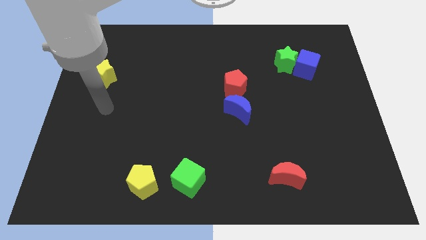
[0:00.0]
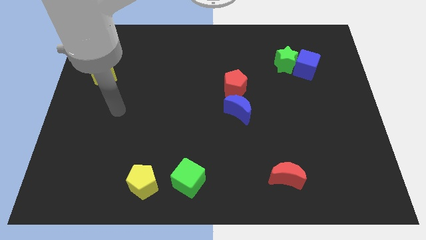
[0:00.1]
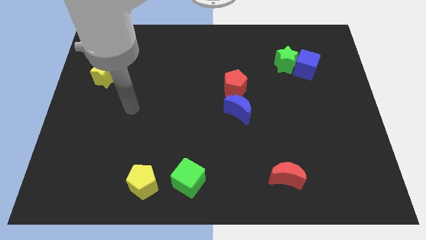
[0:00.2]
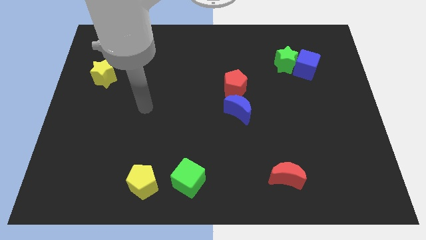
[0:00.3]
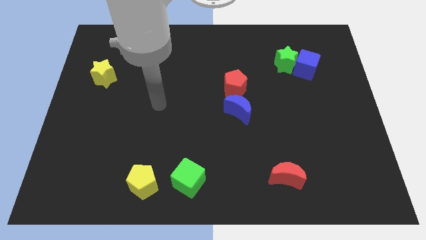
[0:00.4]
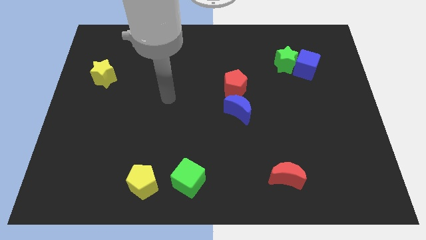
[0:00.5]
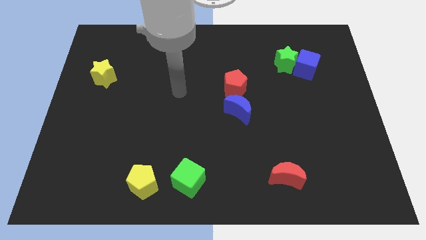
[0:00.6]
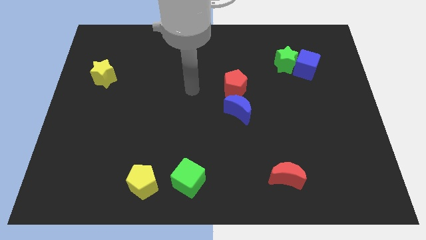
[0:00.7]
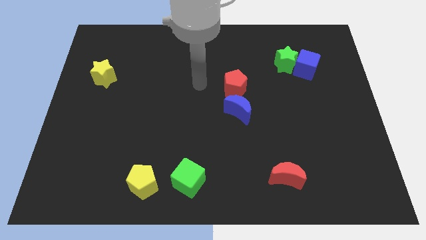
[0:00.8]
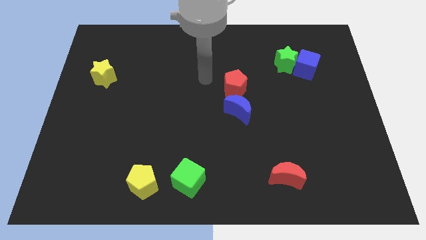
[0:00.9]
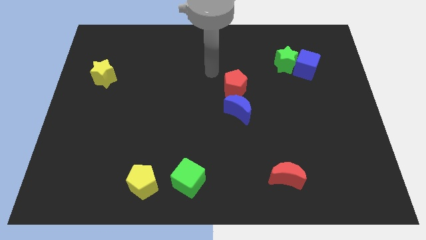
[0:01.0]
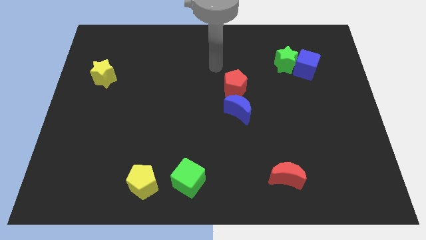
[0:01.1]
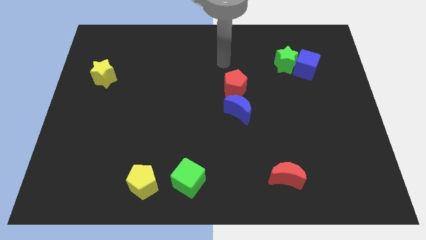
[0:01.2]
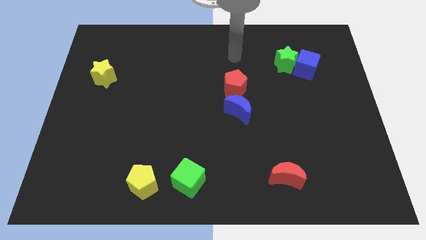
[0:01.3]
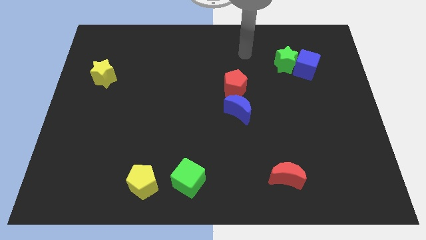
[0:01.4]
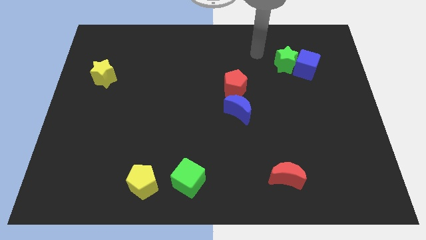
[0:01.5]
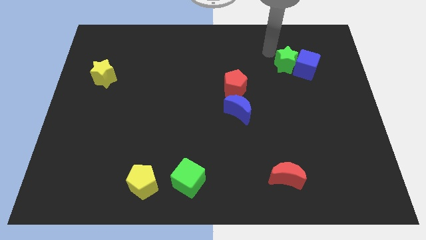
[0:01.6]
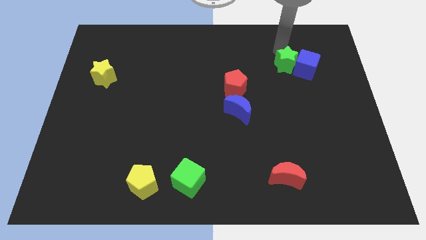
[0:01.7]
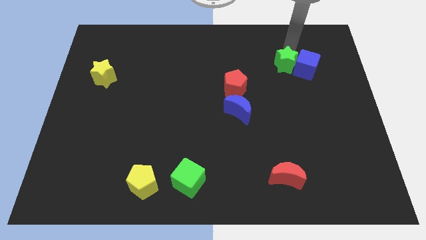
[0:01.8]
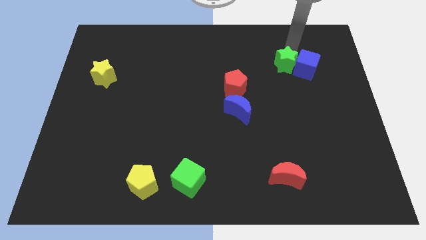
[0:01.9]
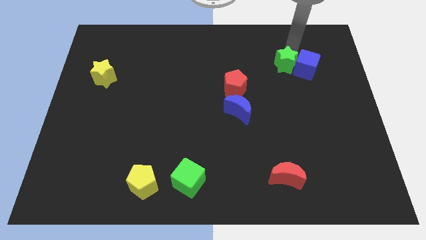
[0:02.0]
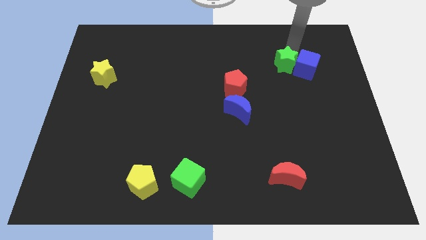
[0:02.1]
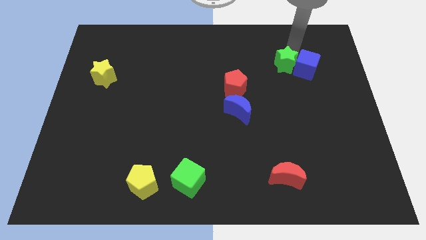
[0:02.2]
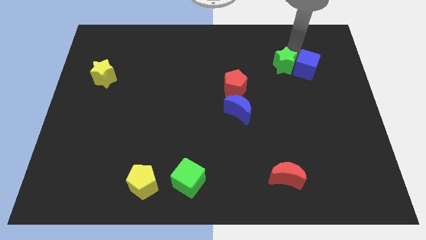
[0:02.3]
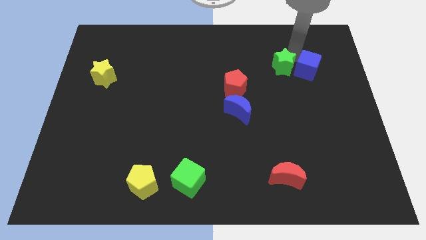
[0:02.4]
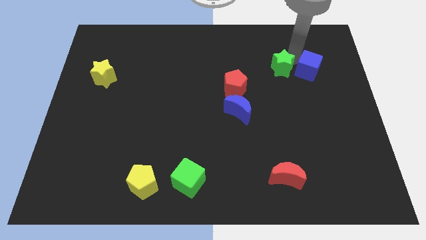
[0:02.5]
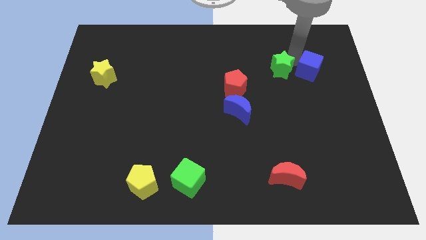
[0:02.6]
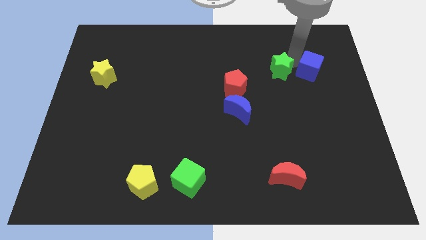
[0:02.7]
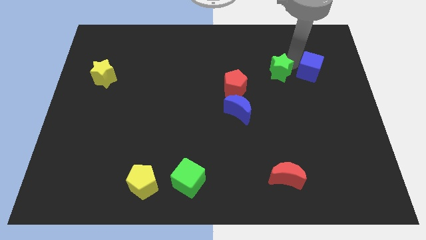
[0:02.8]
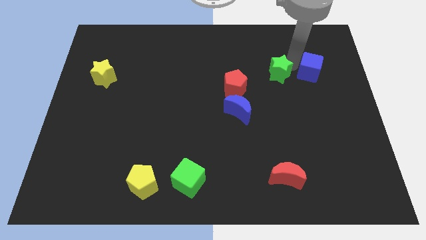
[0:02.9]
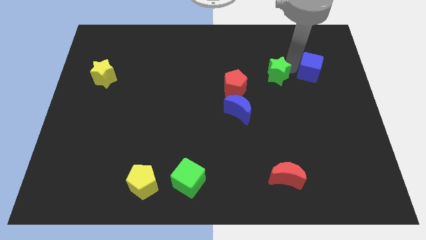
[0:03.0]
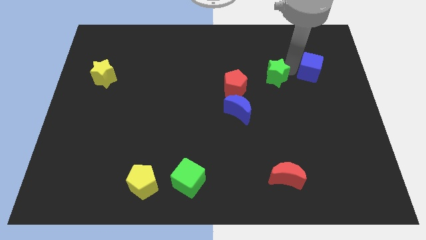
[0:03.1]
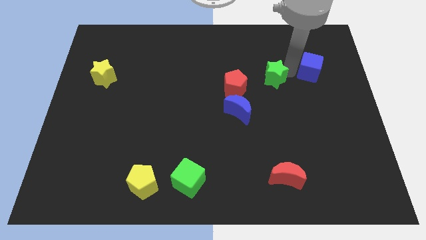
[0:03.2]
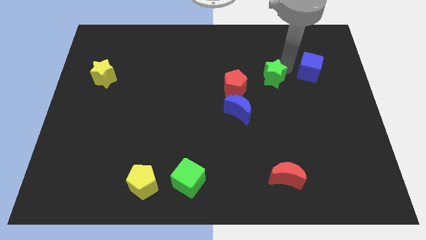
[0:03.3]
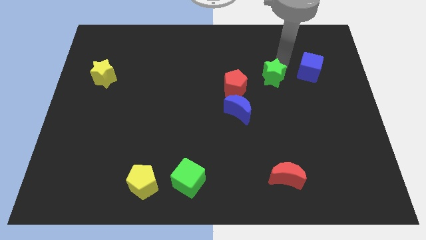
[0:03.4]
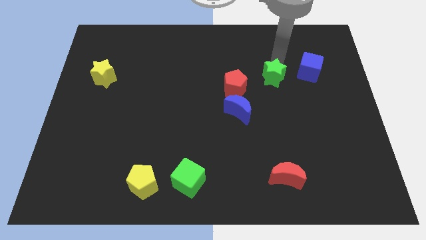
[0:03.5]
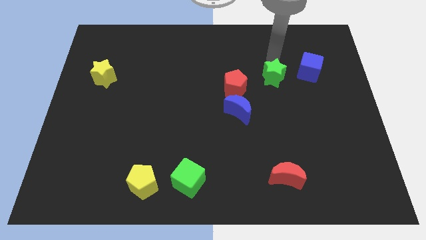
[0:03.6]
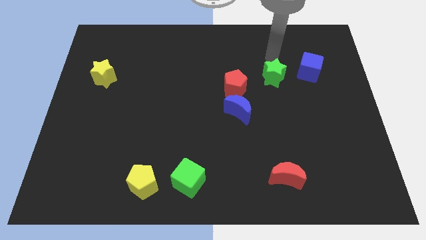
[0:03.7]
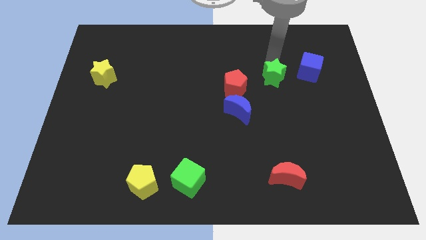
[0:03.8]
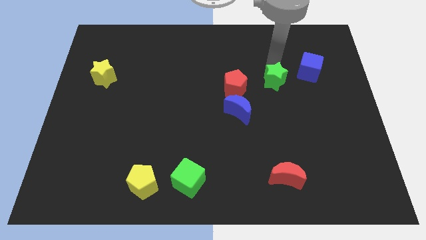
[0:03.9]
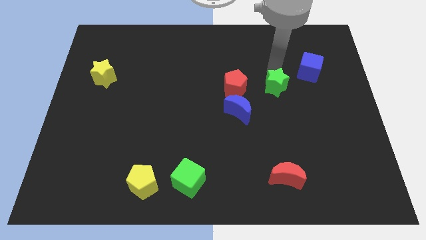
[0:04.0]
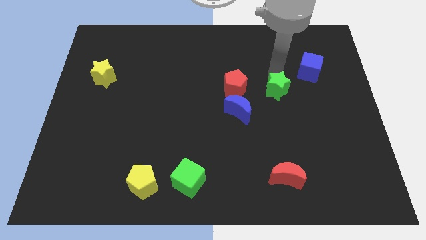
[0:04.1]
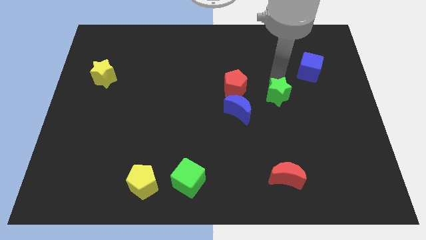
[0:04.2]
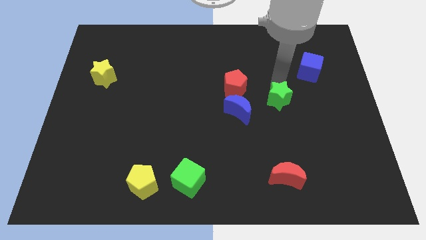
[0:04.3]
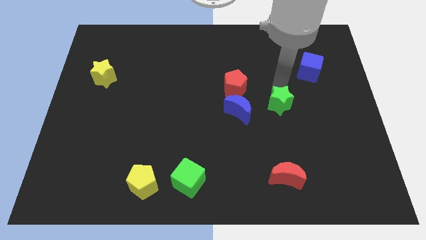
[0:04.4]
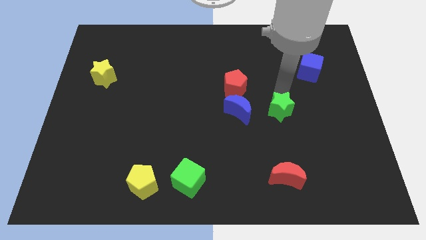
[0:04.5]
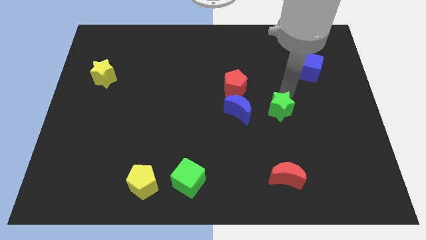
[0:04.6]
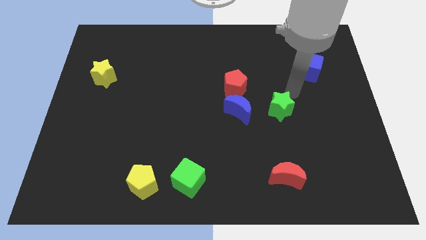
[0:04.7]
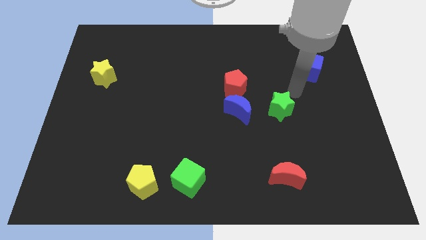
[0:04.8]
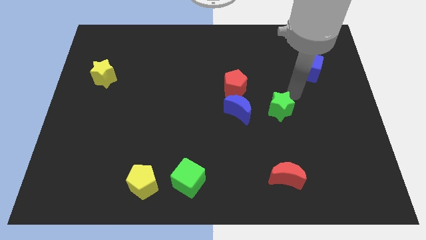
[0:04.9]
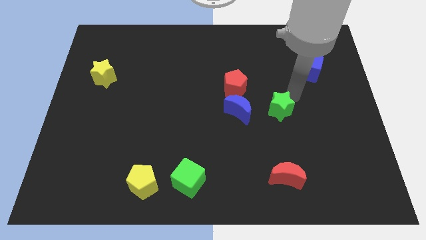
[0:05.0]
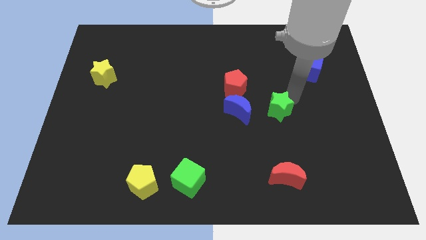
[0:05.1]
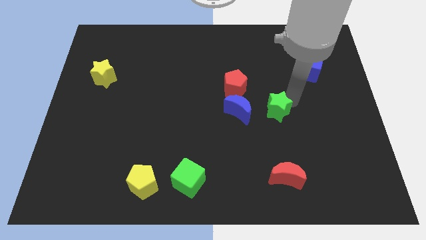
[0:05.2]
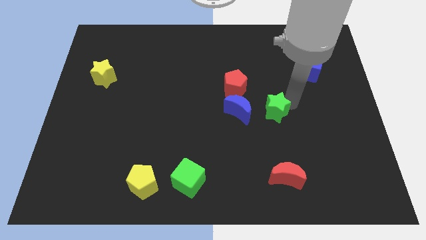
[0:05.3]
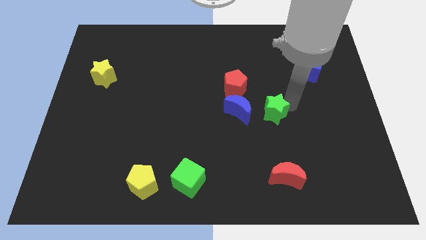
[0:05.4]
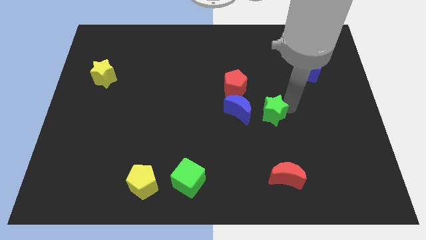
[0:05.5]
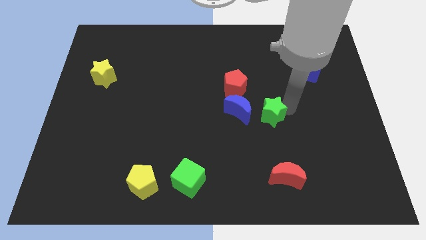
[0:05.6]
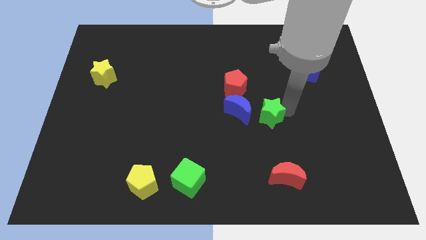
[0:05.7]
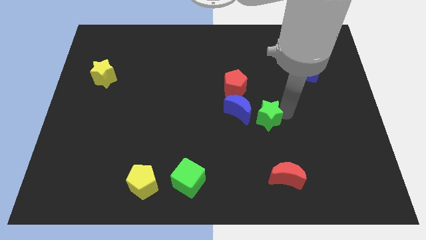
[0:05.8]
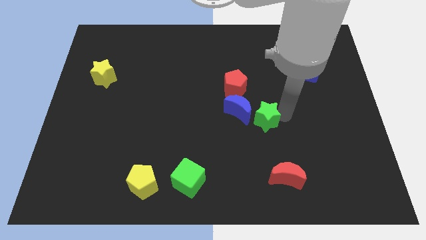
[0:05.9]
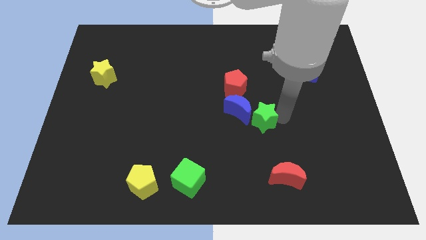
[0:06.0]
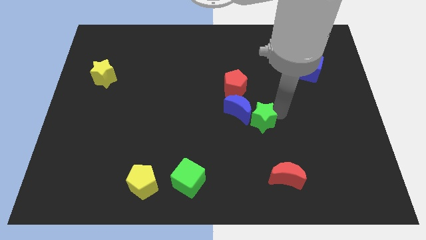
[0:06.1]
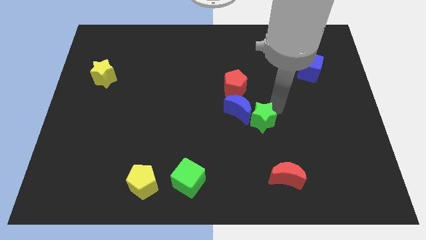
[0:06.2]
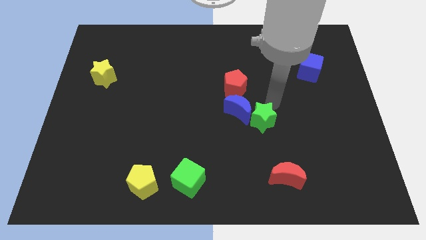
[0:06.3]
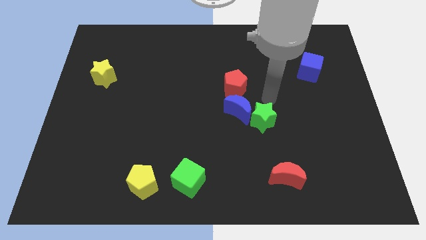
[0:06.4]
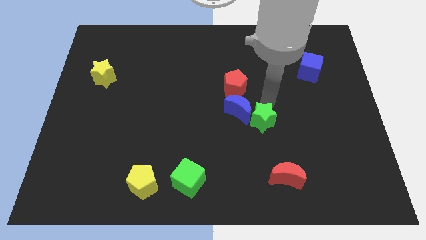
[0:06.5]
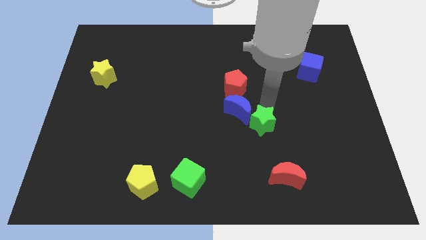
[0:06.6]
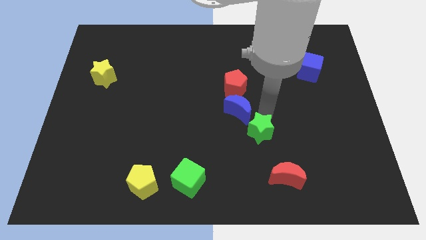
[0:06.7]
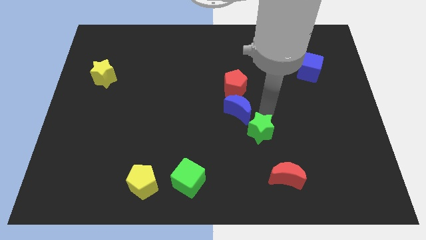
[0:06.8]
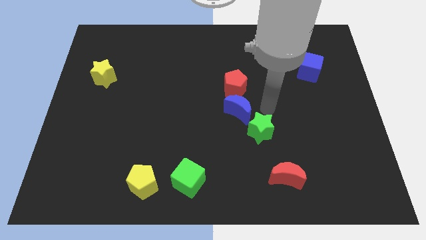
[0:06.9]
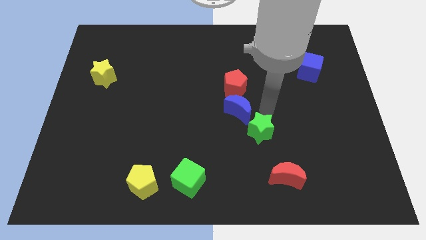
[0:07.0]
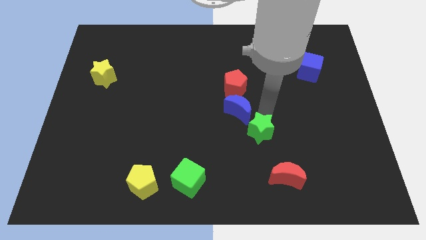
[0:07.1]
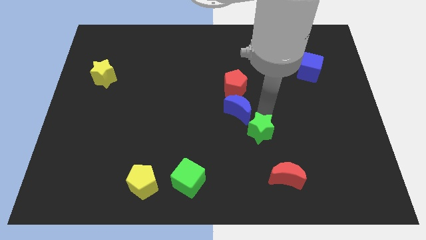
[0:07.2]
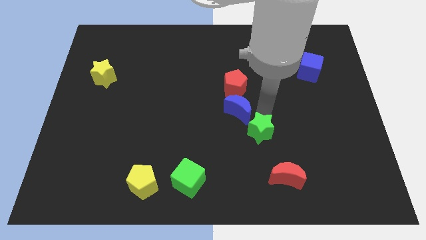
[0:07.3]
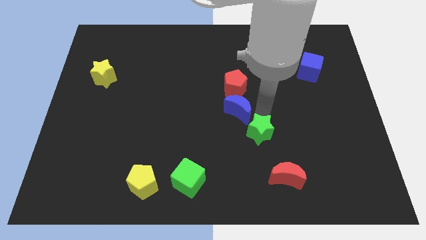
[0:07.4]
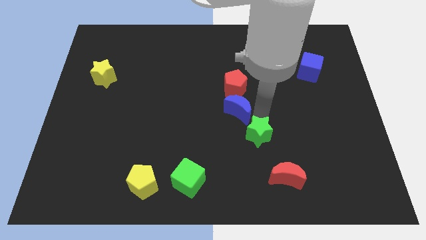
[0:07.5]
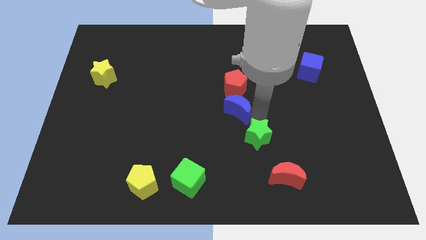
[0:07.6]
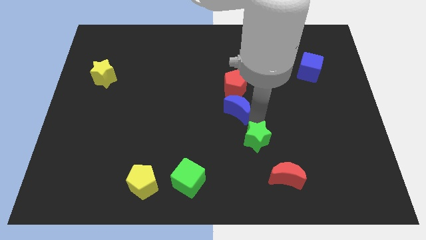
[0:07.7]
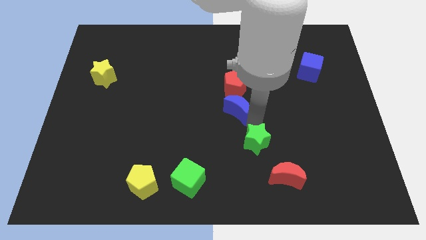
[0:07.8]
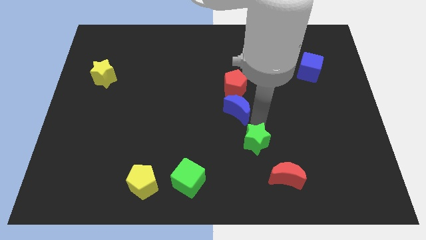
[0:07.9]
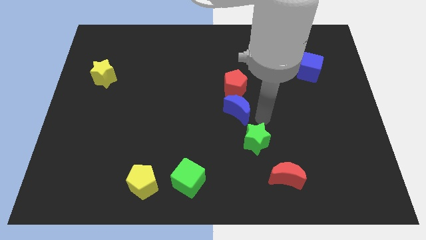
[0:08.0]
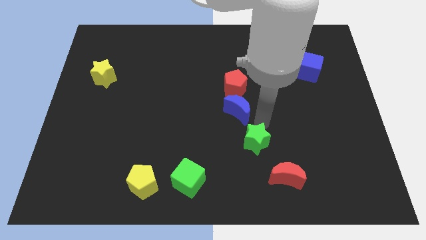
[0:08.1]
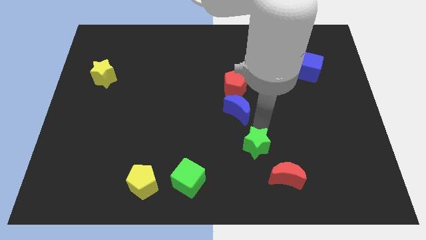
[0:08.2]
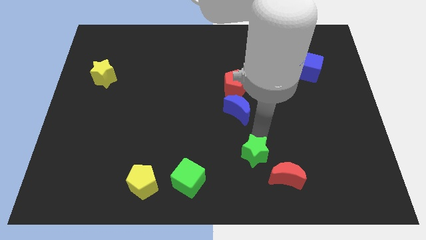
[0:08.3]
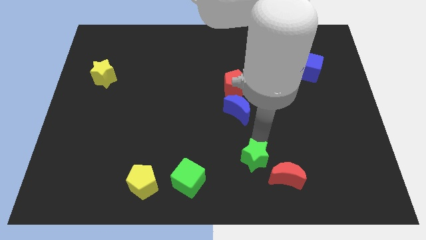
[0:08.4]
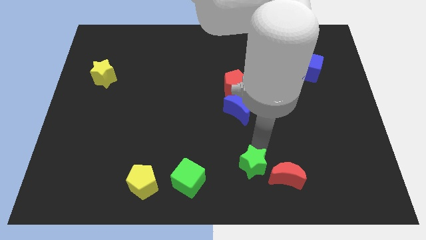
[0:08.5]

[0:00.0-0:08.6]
put the green star to the right side of the green cube

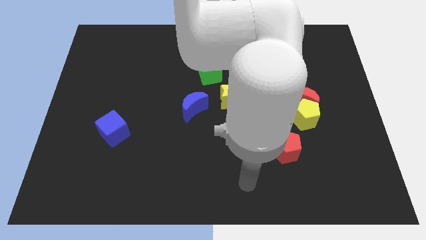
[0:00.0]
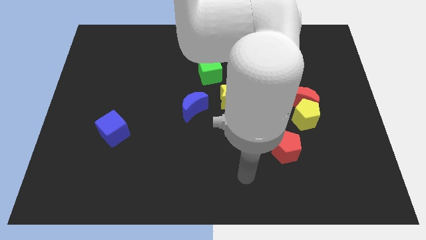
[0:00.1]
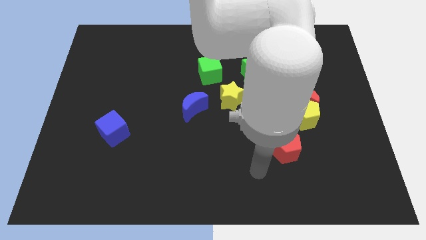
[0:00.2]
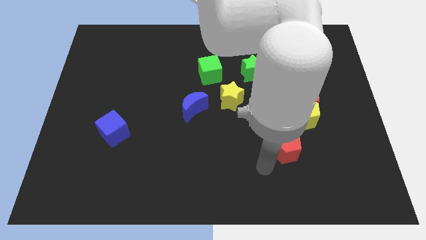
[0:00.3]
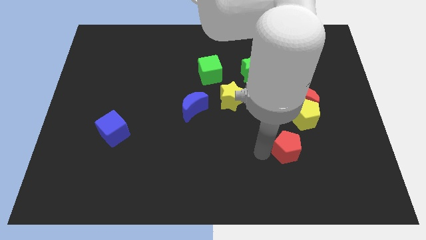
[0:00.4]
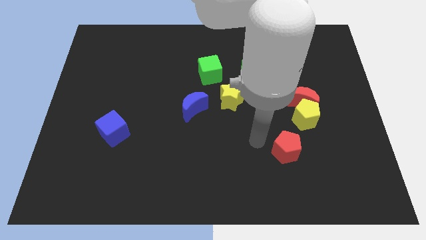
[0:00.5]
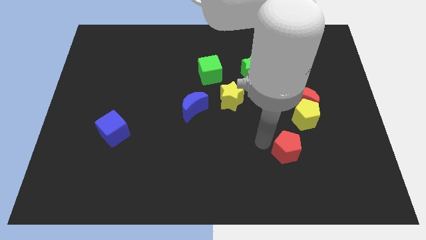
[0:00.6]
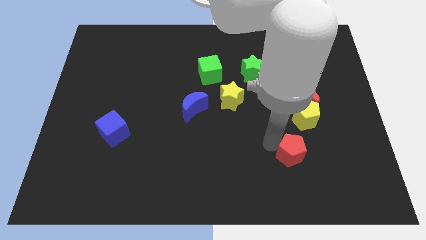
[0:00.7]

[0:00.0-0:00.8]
slide the red pentagon to the bottom side of the yellow pentagon
